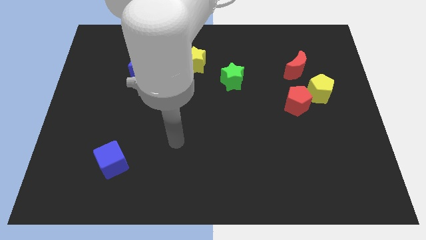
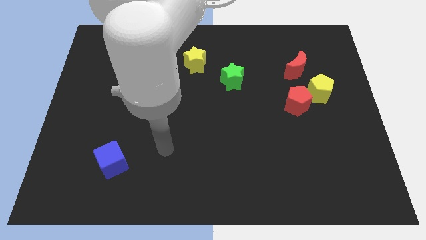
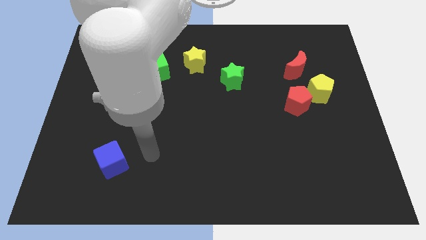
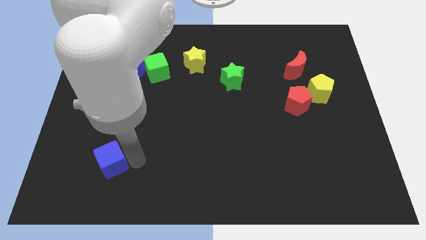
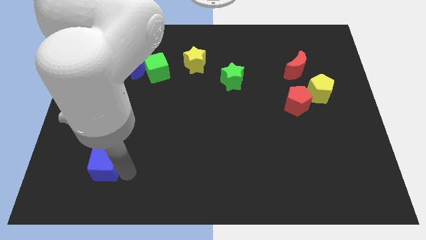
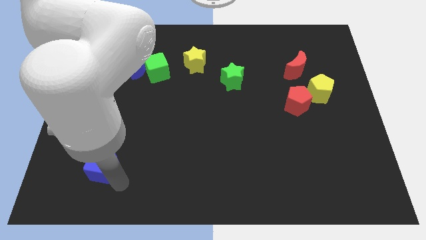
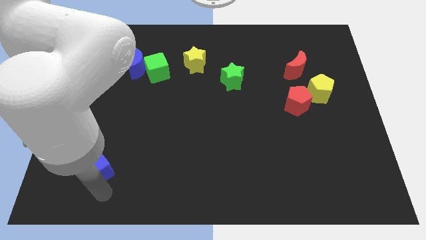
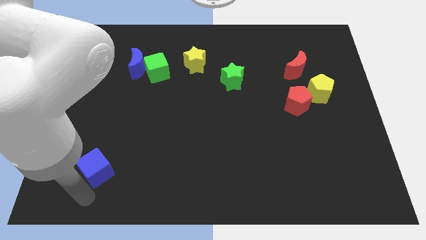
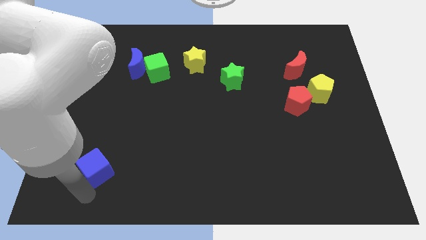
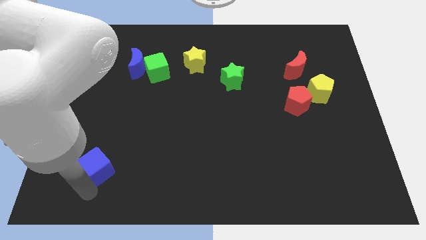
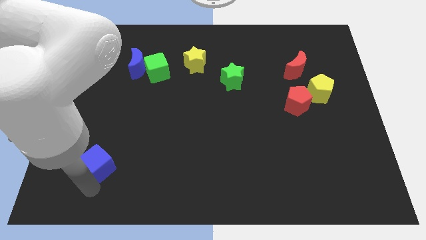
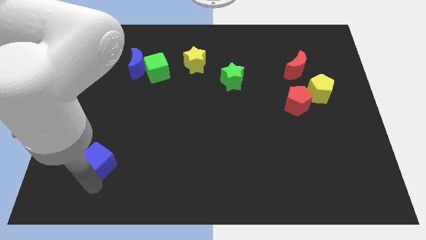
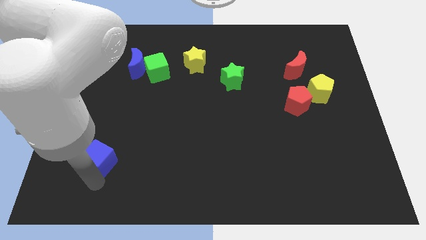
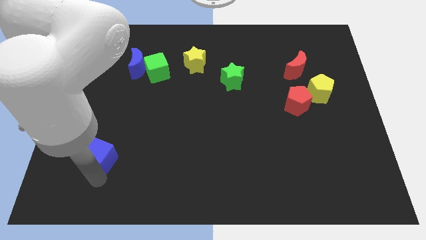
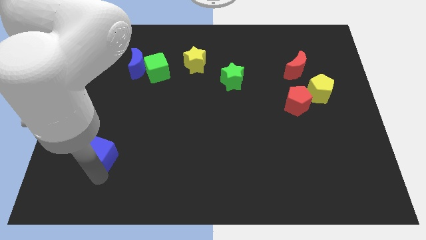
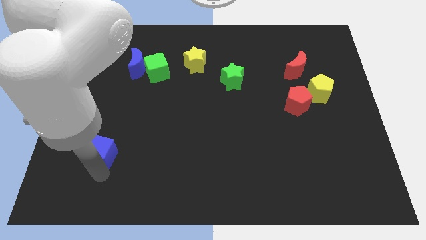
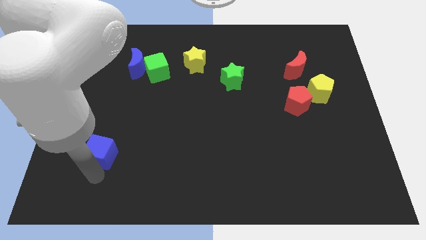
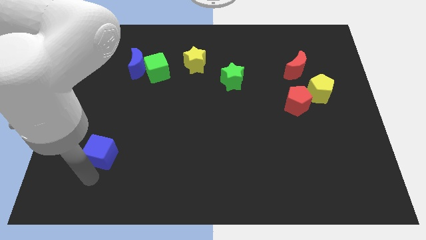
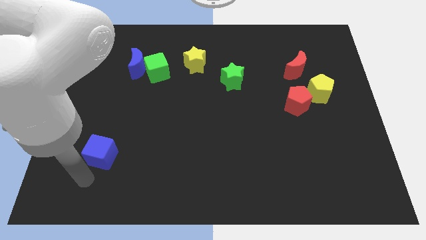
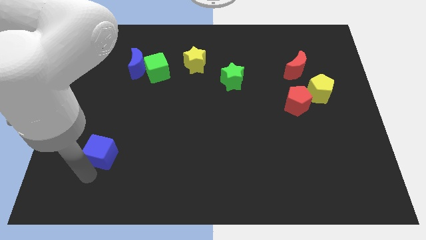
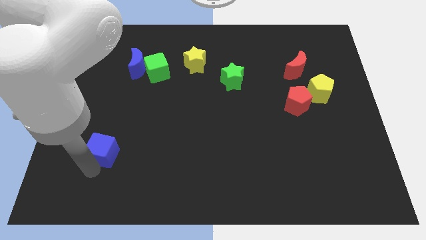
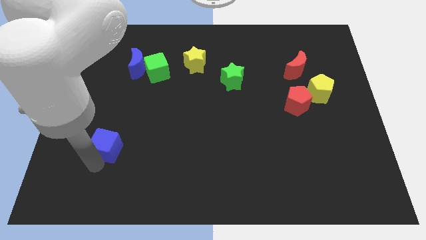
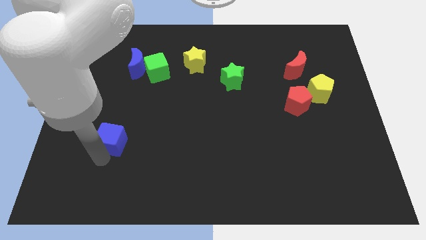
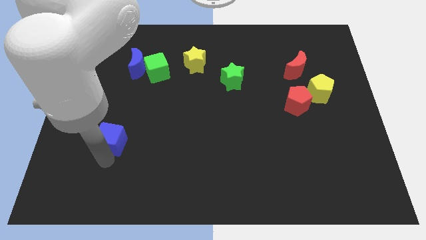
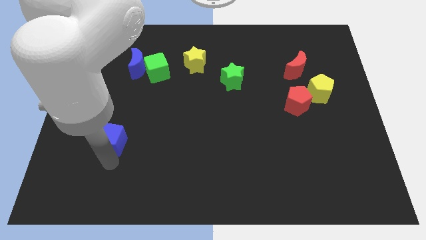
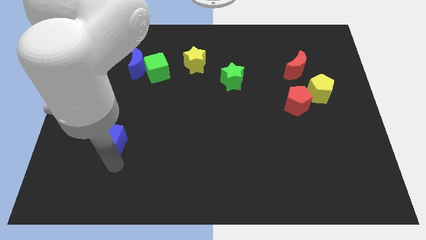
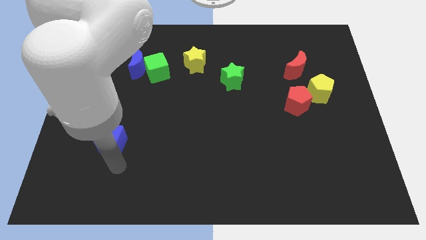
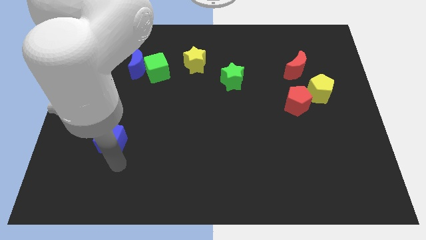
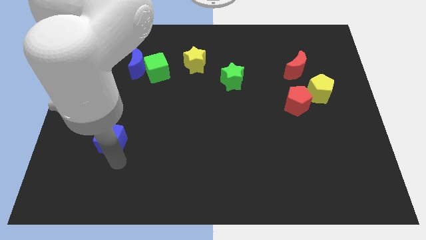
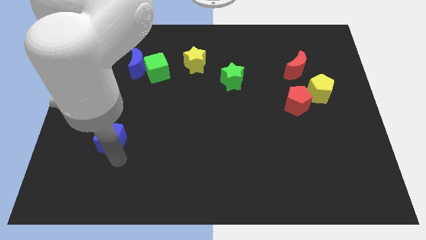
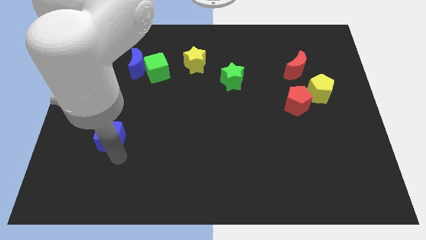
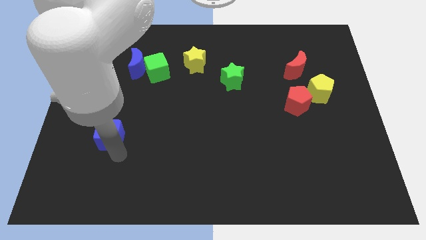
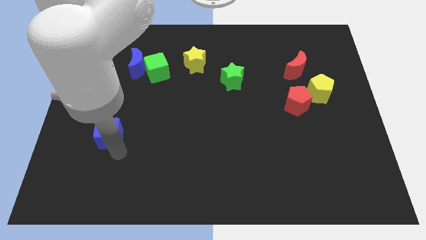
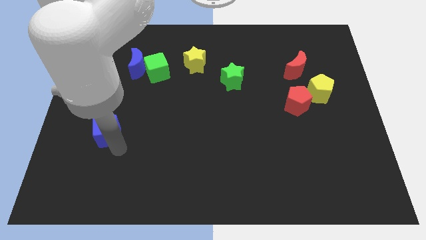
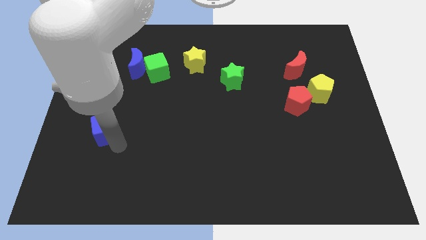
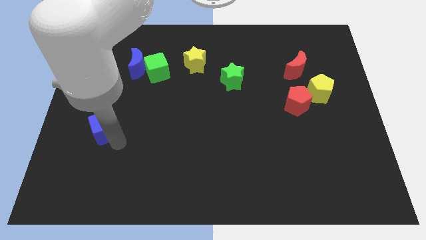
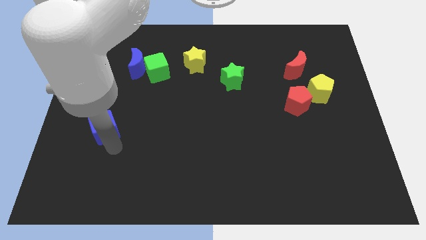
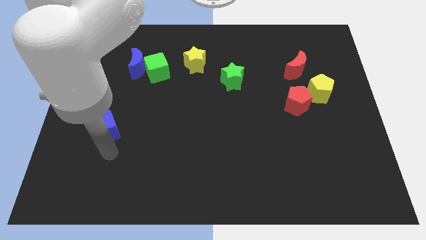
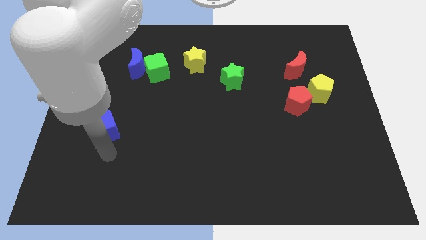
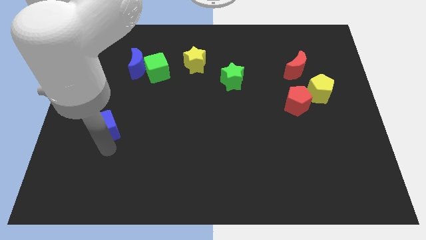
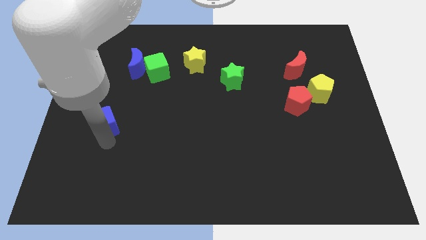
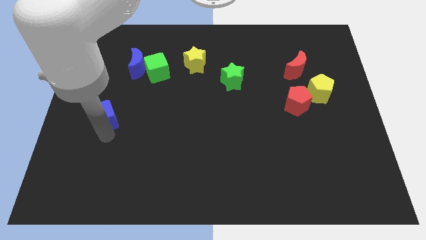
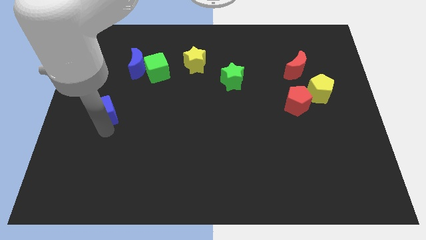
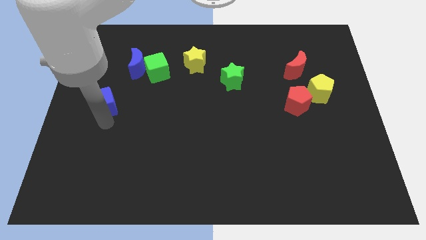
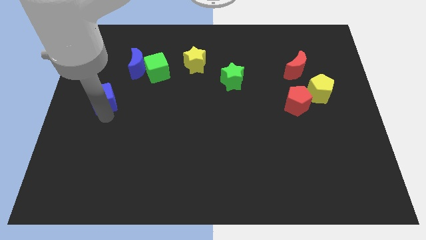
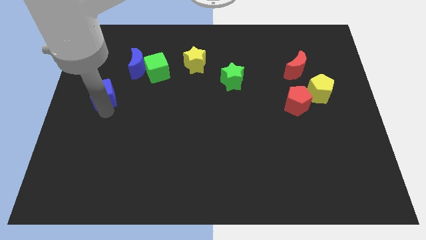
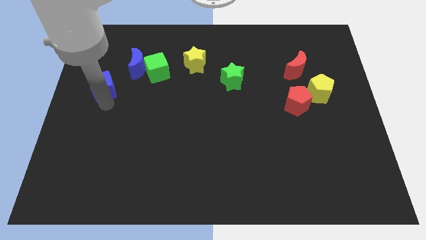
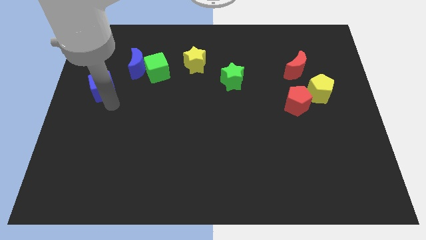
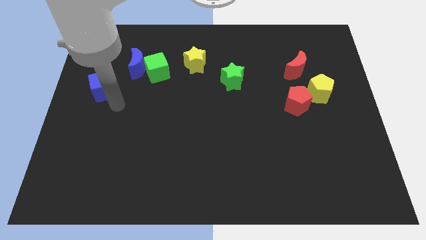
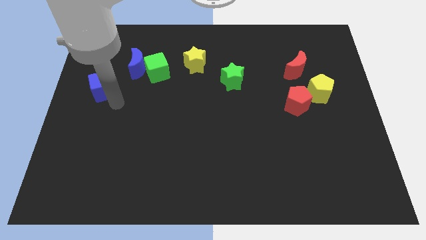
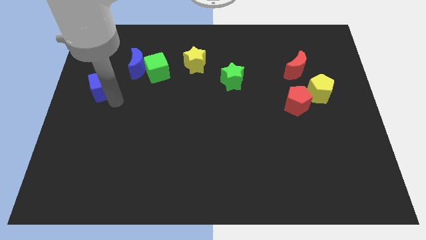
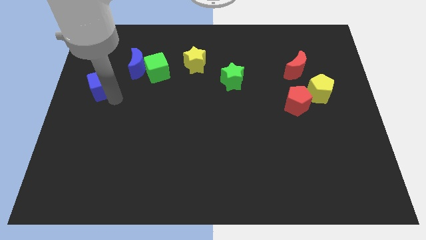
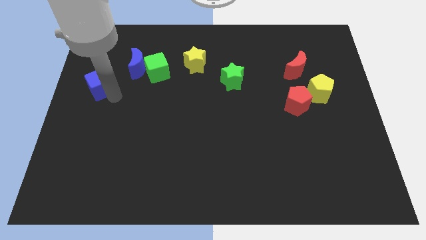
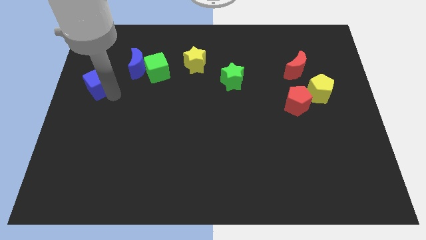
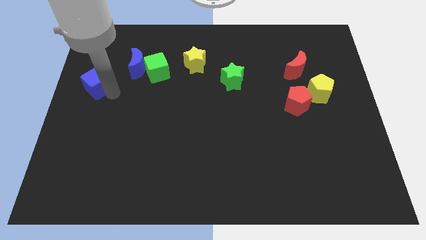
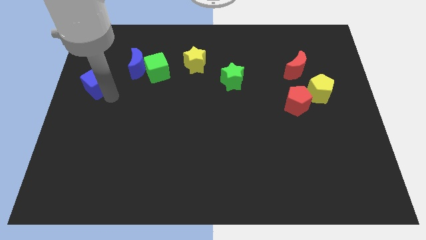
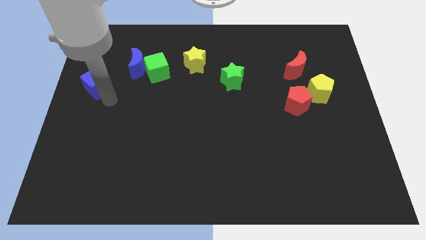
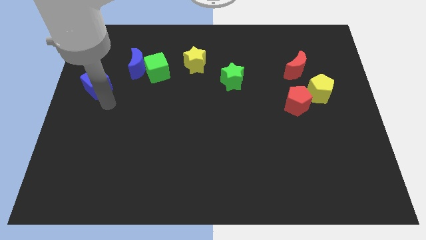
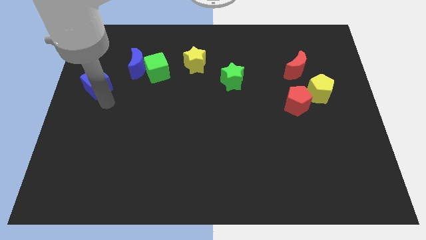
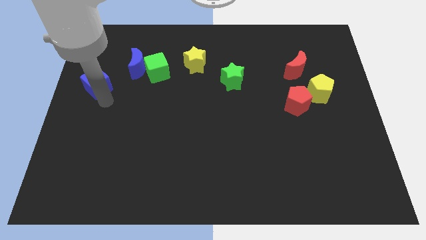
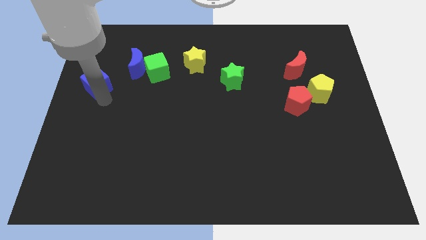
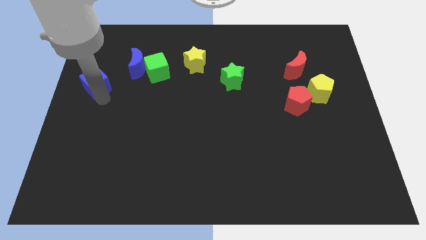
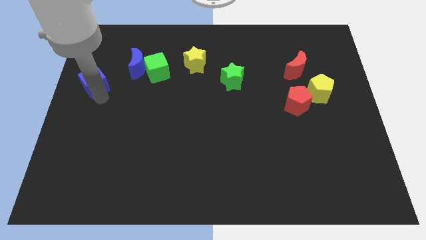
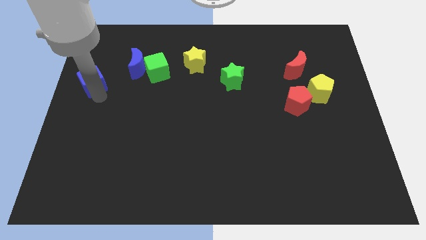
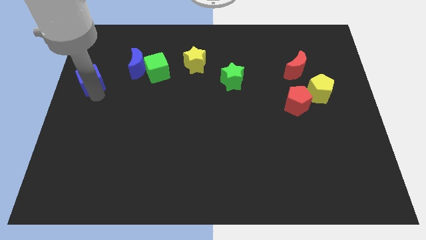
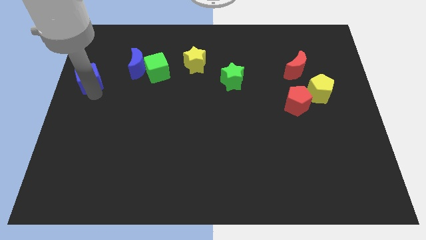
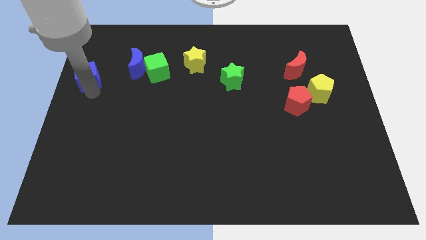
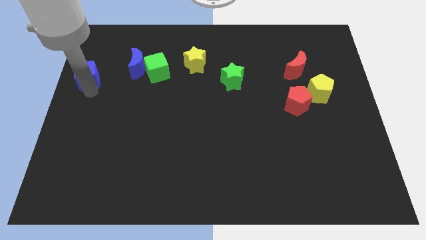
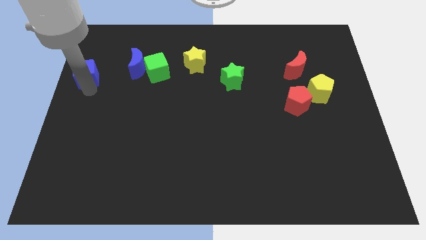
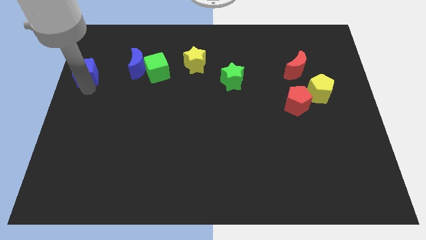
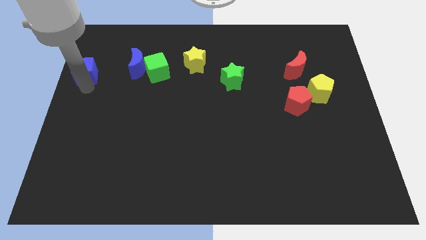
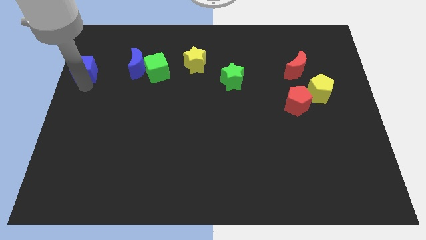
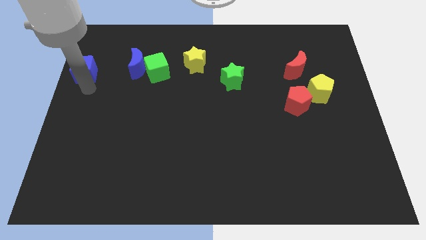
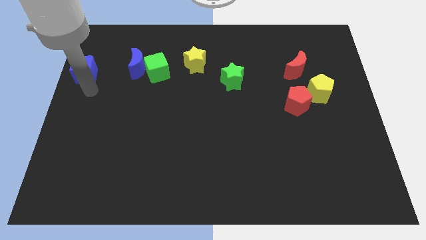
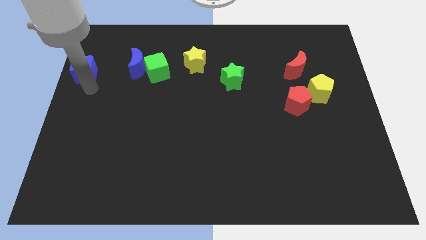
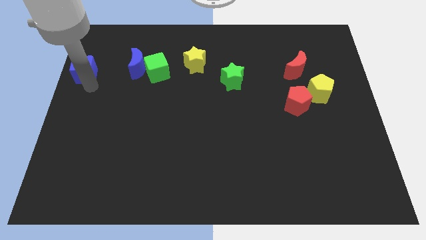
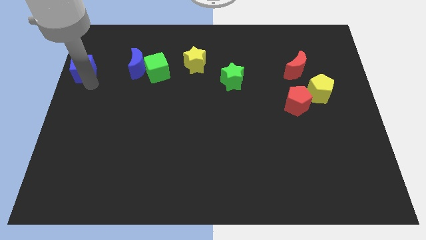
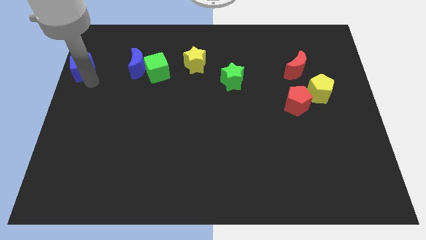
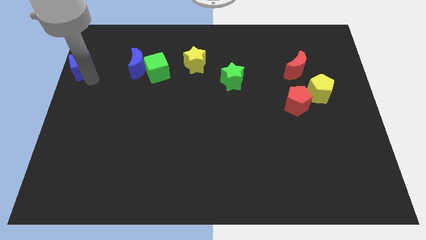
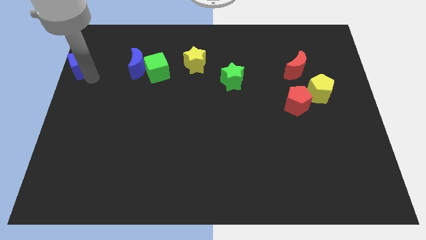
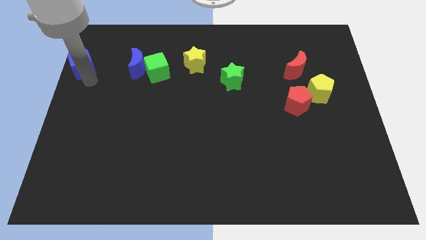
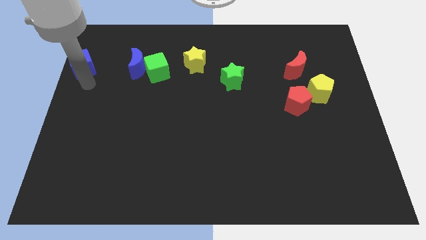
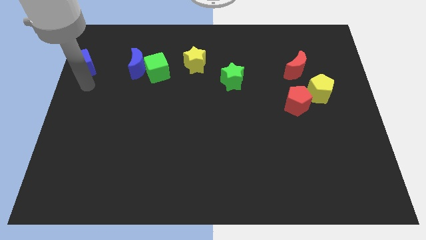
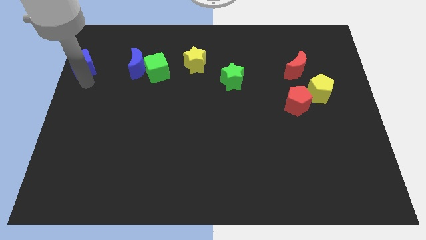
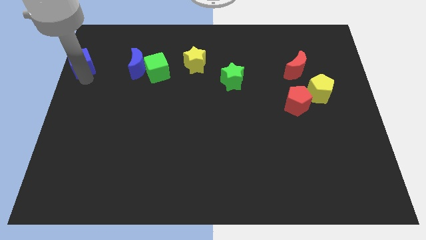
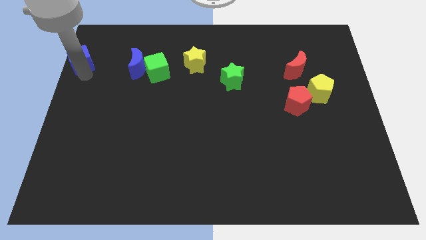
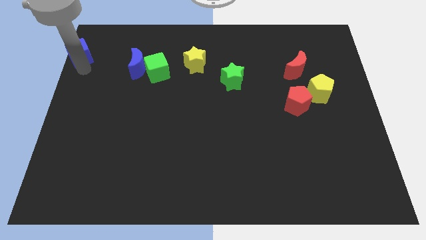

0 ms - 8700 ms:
slide the blue cube to the top left corner
